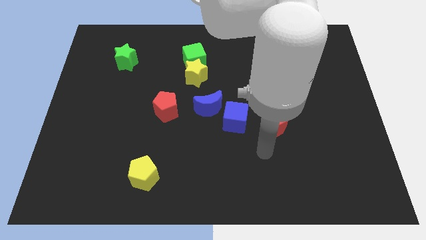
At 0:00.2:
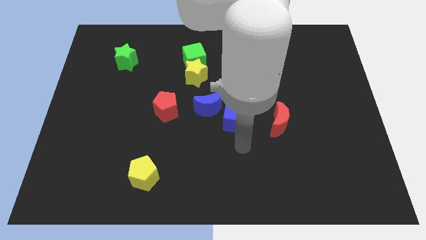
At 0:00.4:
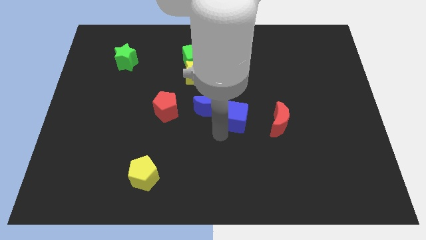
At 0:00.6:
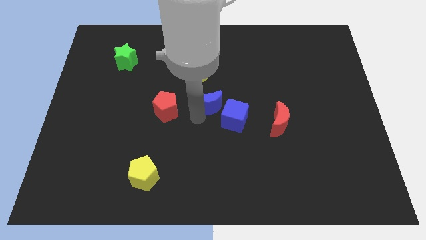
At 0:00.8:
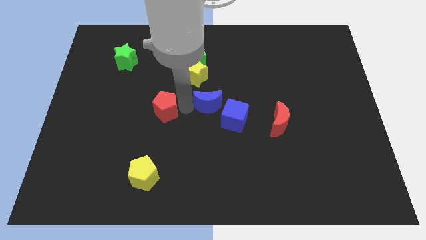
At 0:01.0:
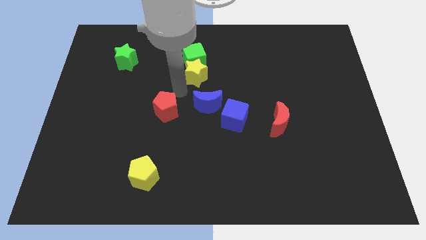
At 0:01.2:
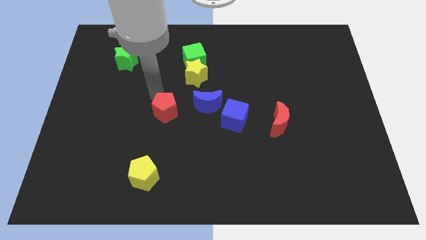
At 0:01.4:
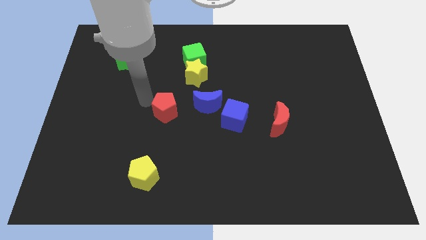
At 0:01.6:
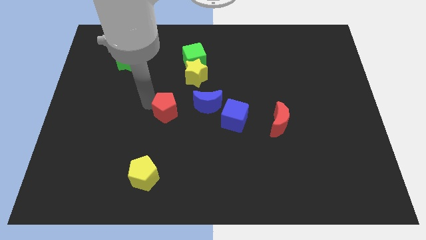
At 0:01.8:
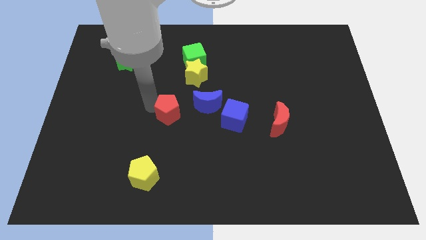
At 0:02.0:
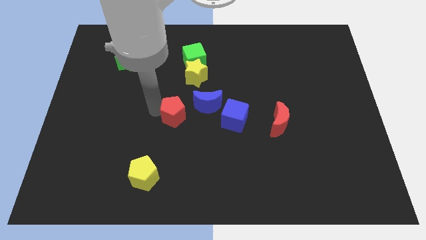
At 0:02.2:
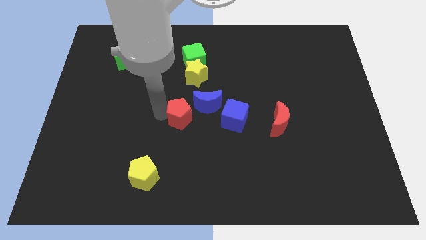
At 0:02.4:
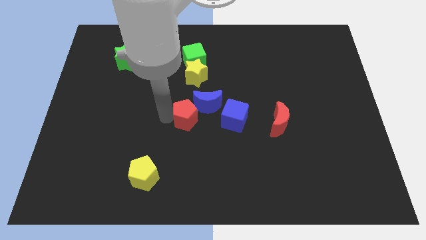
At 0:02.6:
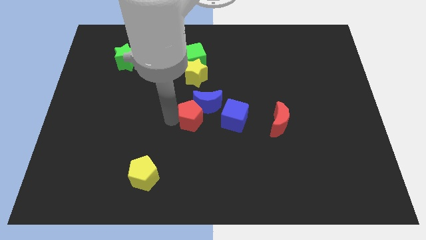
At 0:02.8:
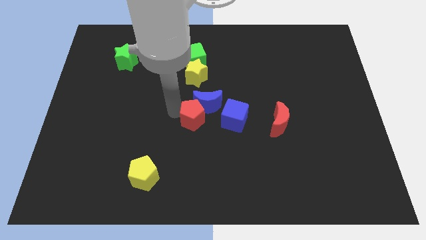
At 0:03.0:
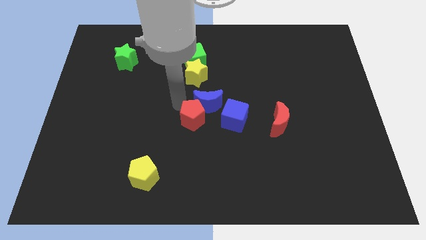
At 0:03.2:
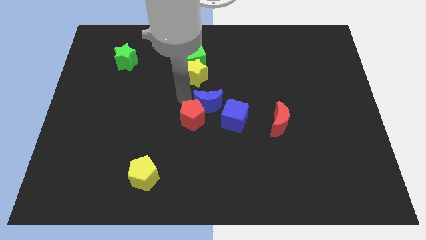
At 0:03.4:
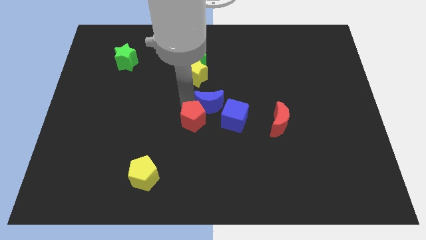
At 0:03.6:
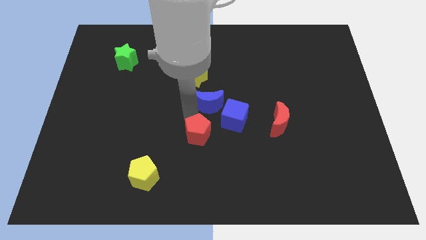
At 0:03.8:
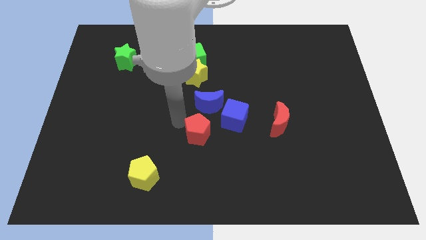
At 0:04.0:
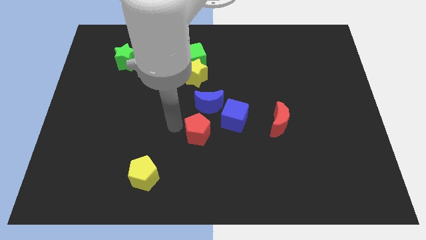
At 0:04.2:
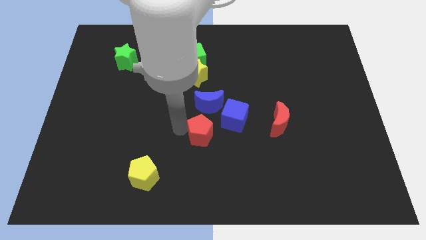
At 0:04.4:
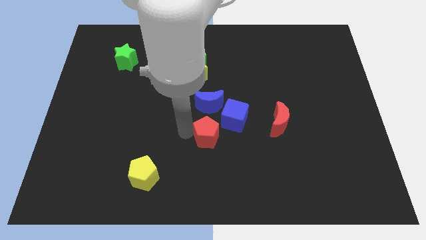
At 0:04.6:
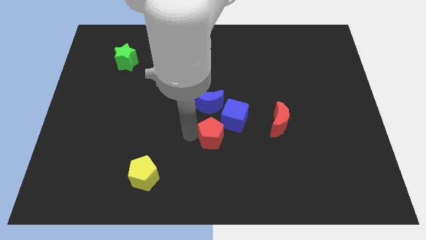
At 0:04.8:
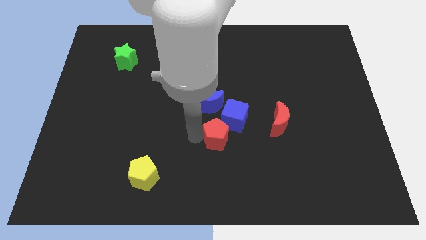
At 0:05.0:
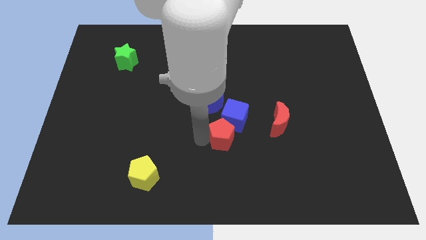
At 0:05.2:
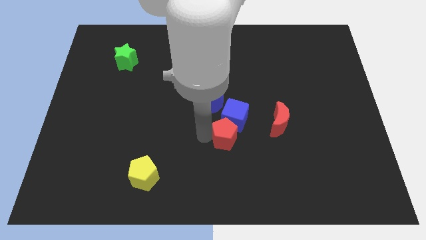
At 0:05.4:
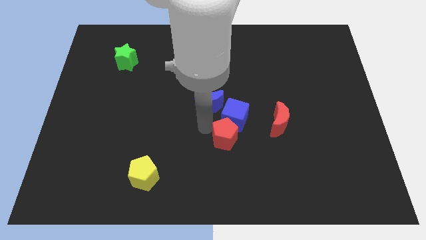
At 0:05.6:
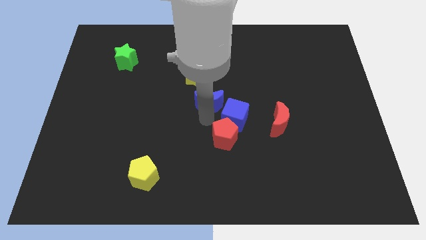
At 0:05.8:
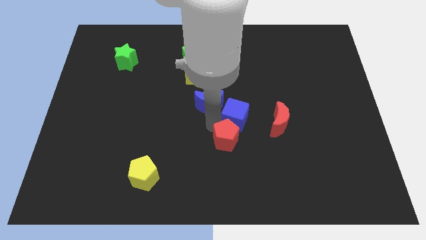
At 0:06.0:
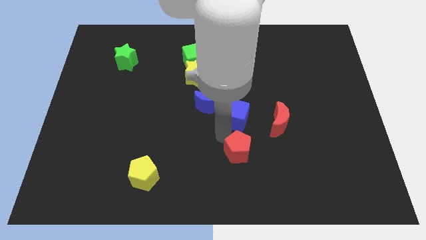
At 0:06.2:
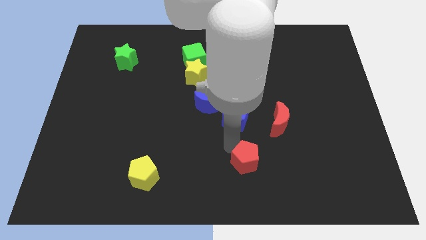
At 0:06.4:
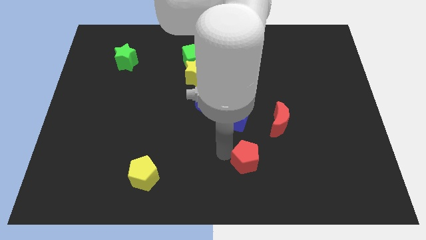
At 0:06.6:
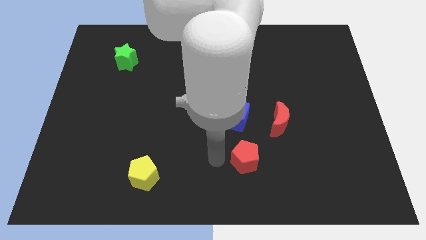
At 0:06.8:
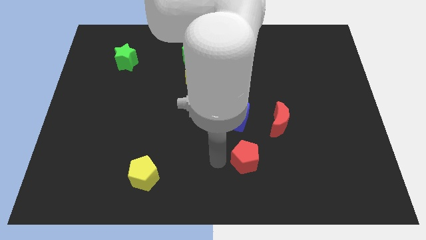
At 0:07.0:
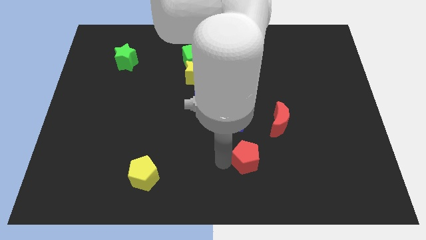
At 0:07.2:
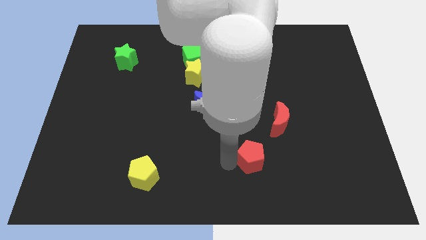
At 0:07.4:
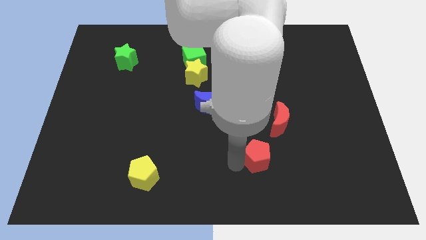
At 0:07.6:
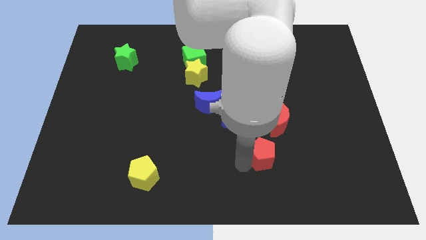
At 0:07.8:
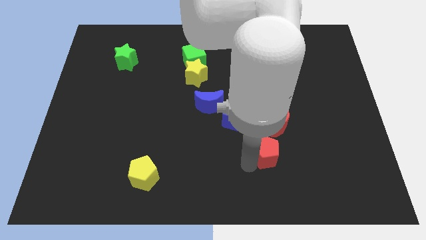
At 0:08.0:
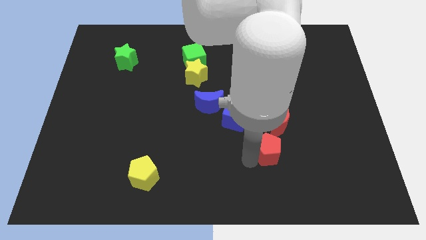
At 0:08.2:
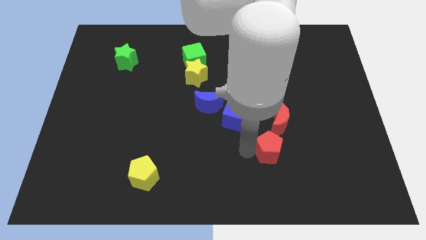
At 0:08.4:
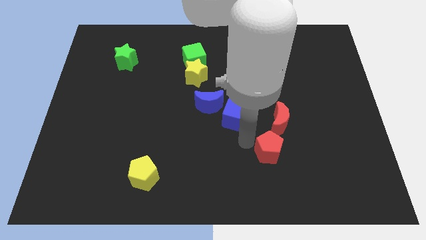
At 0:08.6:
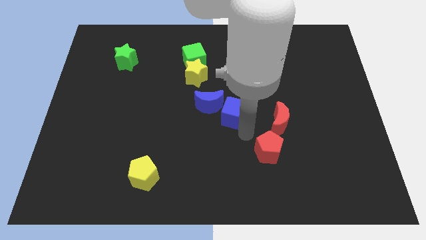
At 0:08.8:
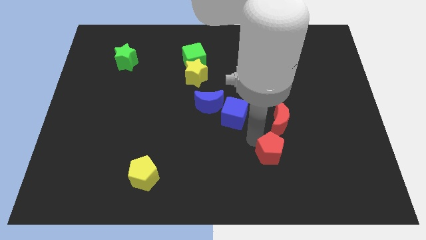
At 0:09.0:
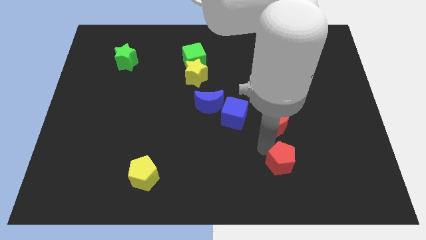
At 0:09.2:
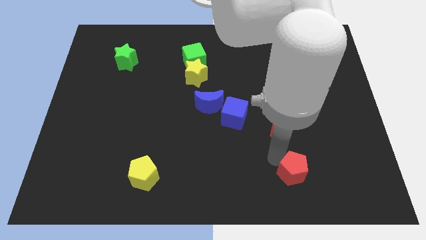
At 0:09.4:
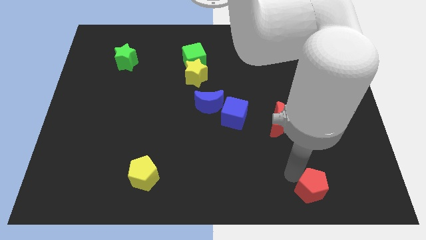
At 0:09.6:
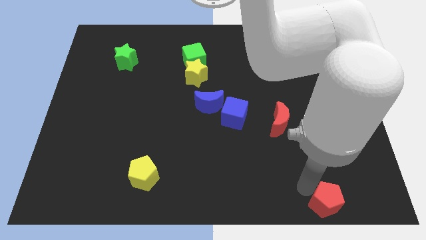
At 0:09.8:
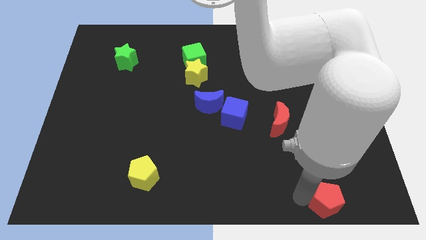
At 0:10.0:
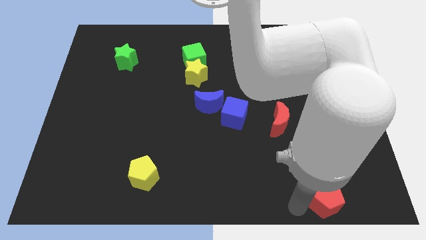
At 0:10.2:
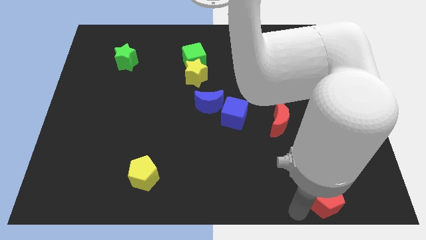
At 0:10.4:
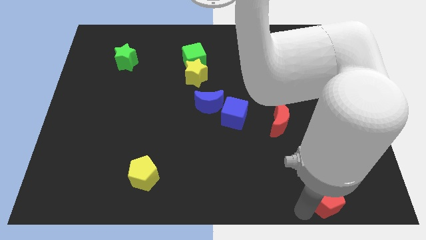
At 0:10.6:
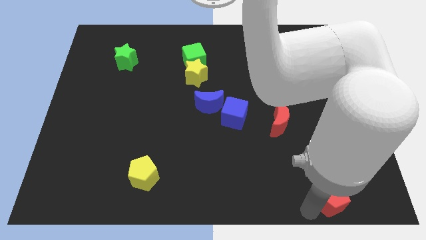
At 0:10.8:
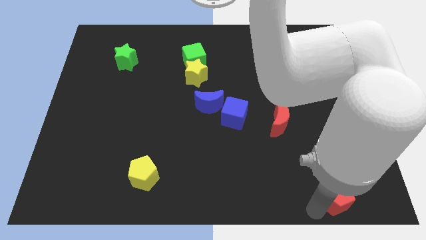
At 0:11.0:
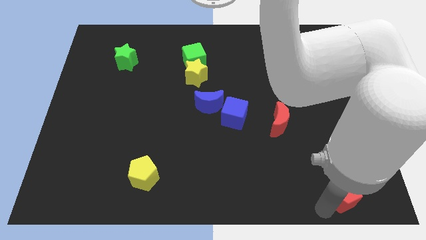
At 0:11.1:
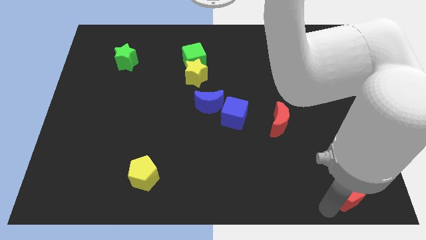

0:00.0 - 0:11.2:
put the red pentagon to the bottom right

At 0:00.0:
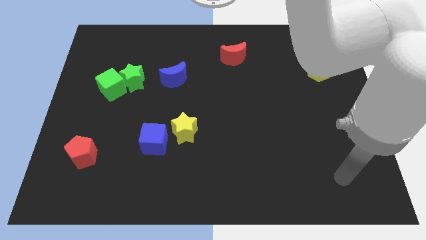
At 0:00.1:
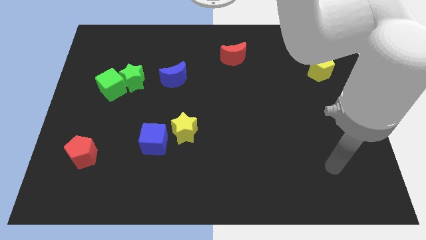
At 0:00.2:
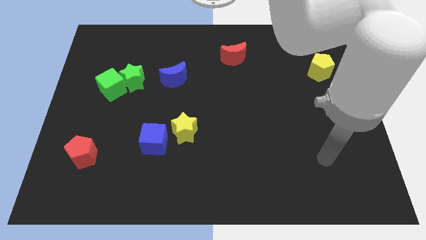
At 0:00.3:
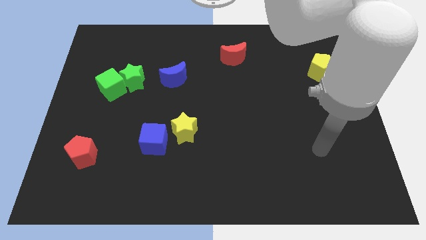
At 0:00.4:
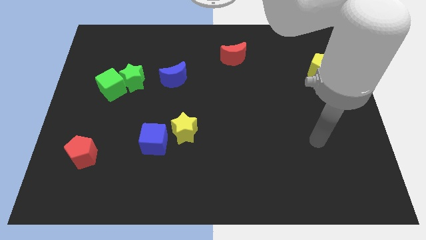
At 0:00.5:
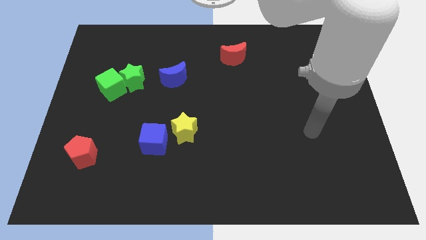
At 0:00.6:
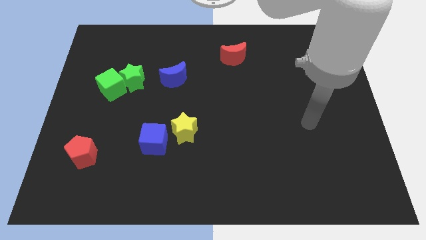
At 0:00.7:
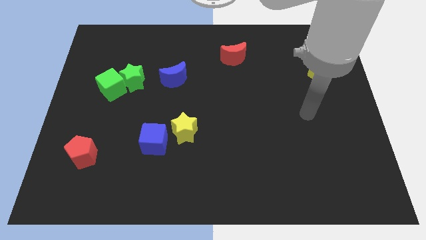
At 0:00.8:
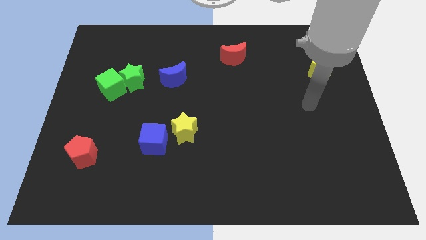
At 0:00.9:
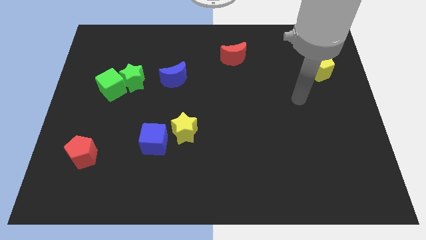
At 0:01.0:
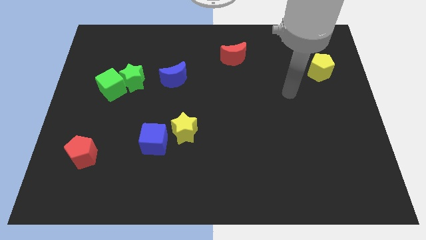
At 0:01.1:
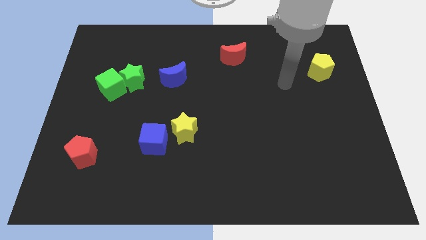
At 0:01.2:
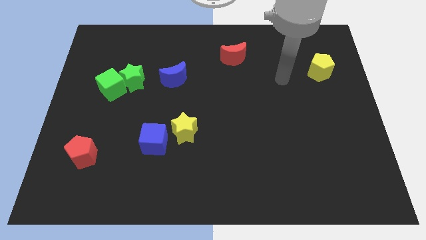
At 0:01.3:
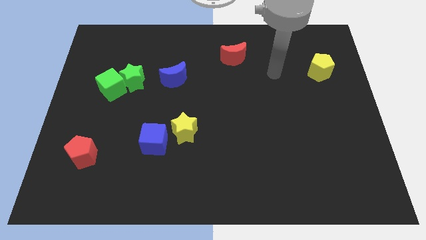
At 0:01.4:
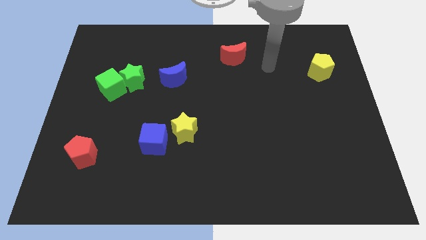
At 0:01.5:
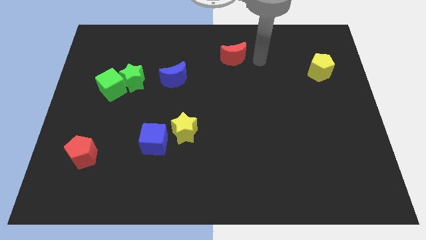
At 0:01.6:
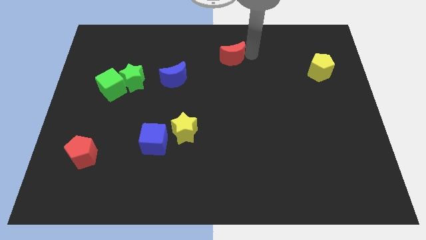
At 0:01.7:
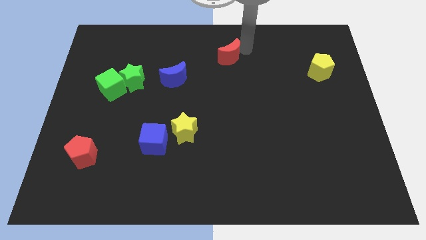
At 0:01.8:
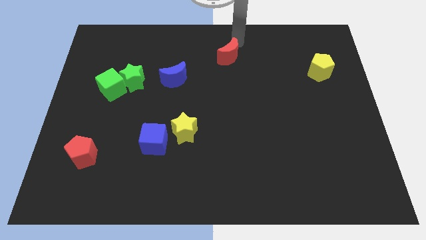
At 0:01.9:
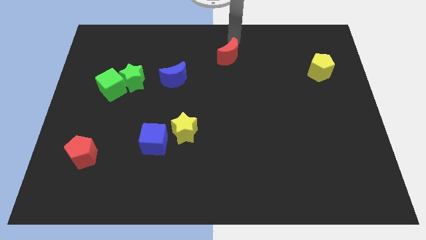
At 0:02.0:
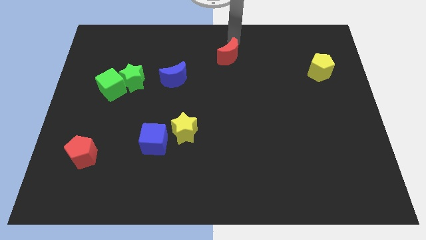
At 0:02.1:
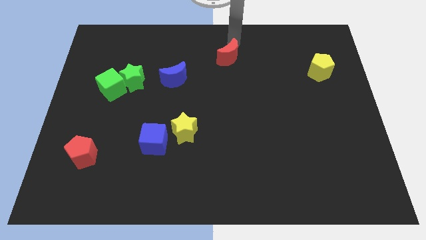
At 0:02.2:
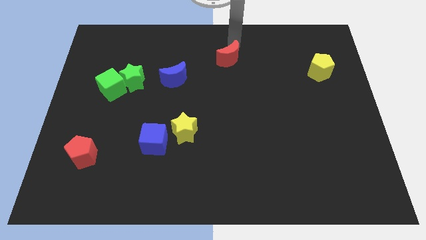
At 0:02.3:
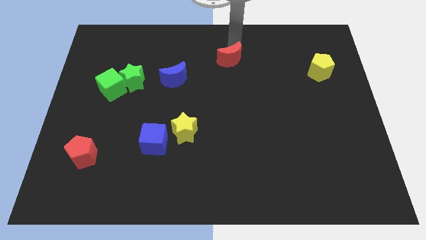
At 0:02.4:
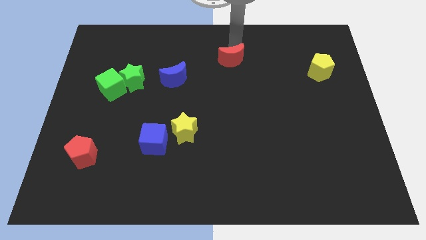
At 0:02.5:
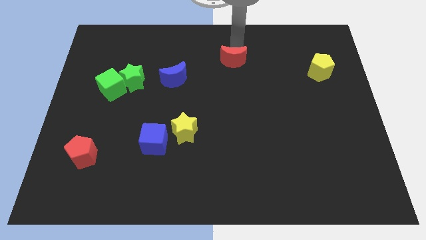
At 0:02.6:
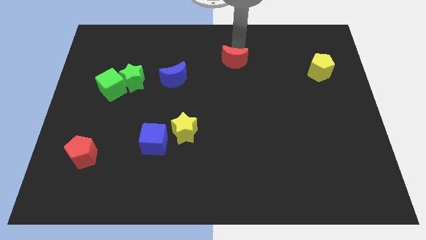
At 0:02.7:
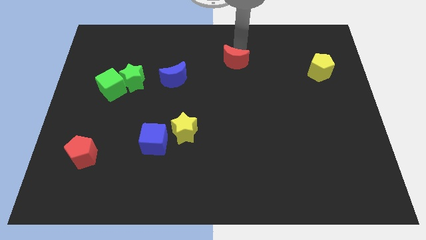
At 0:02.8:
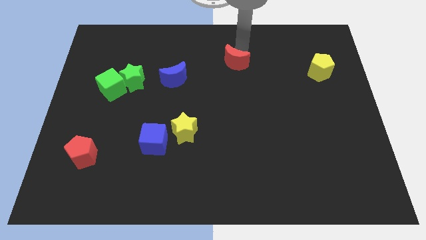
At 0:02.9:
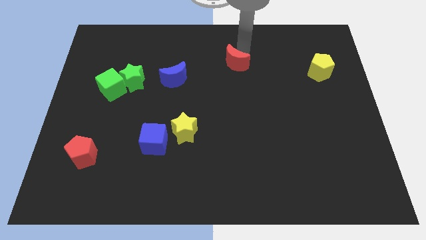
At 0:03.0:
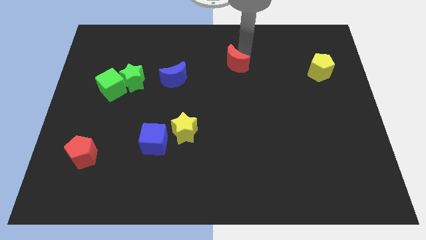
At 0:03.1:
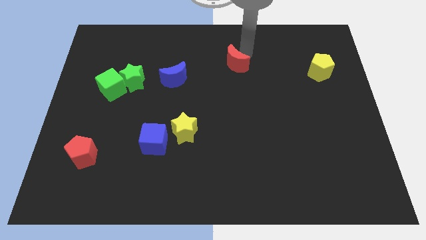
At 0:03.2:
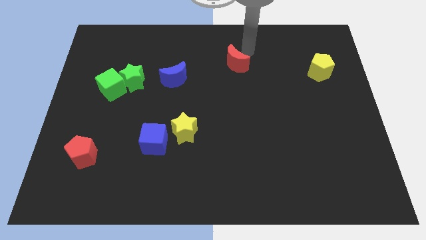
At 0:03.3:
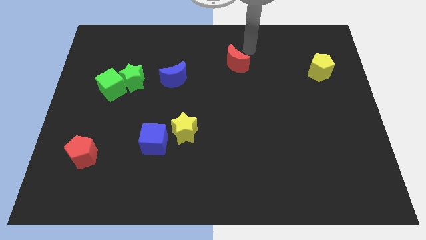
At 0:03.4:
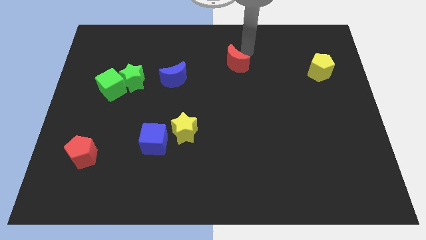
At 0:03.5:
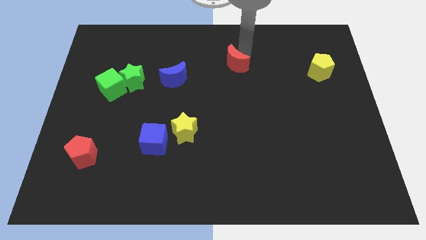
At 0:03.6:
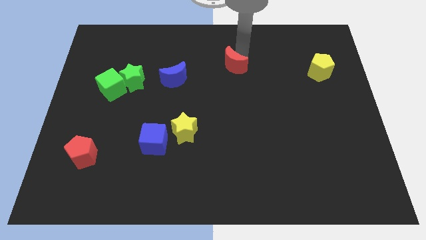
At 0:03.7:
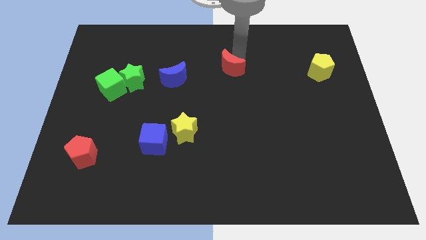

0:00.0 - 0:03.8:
put the red moon to the middle of the board
